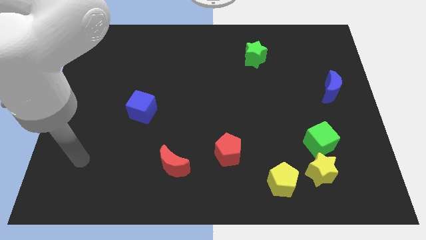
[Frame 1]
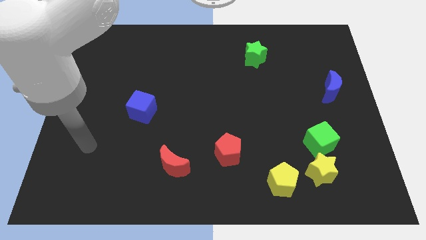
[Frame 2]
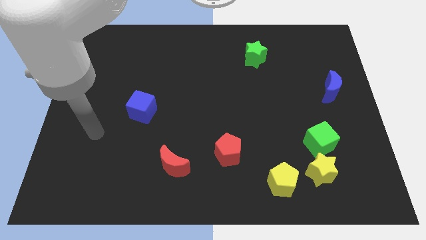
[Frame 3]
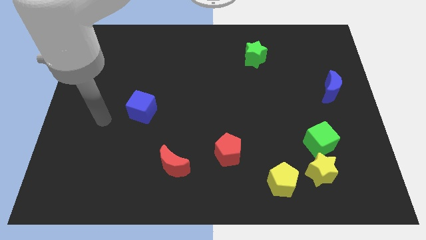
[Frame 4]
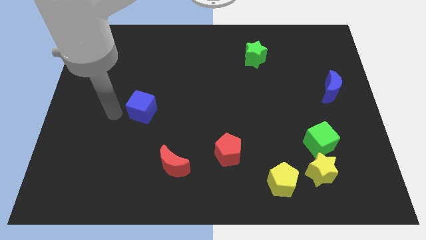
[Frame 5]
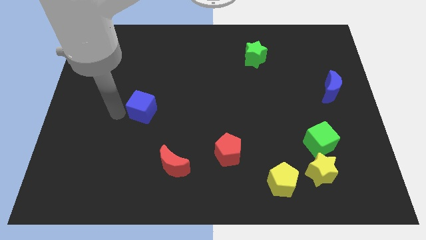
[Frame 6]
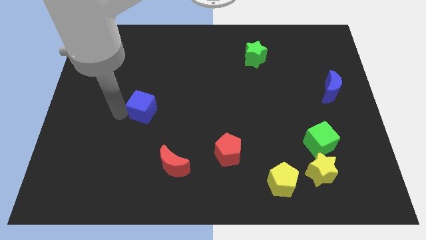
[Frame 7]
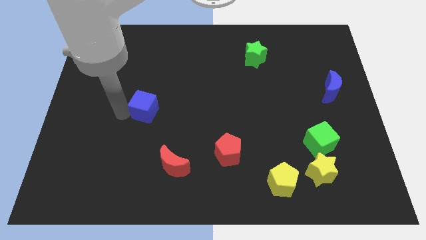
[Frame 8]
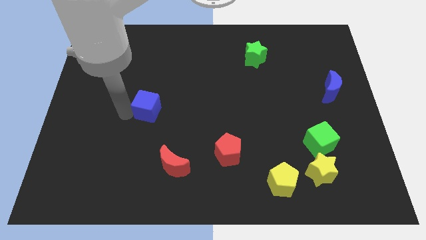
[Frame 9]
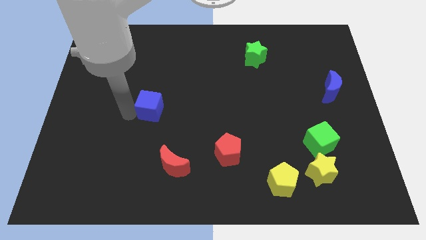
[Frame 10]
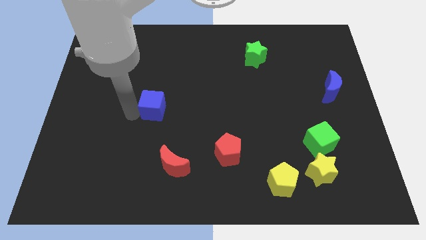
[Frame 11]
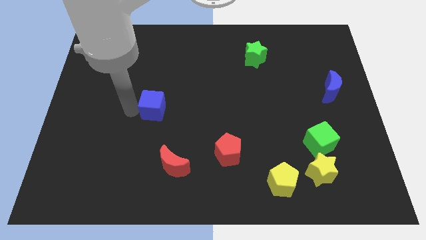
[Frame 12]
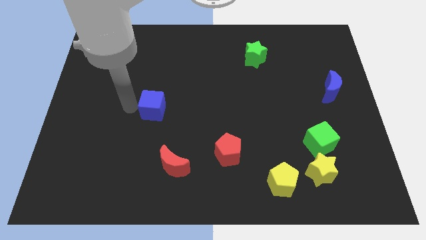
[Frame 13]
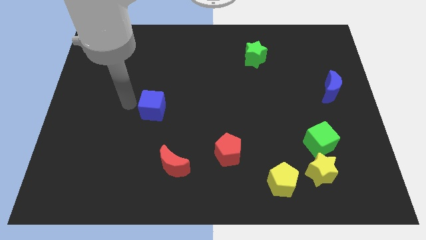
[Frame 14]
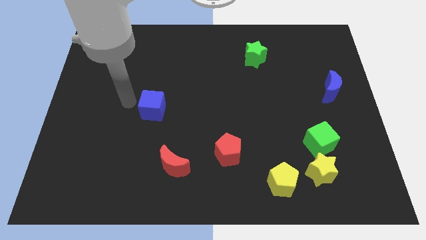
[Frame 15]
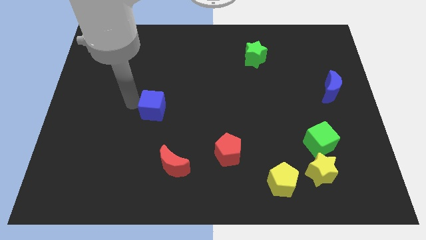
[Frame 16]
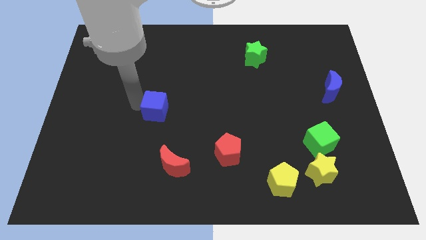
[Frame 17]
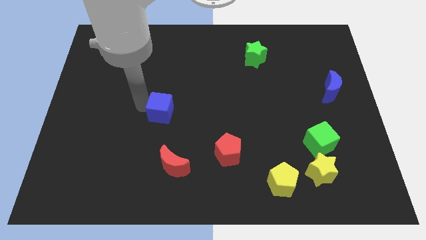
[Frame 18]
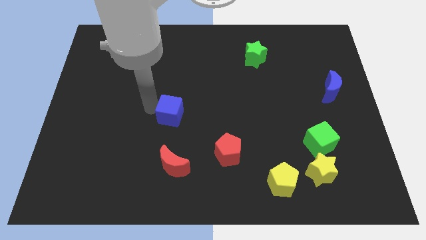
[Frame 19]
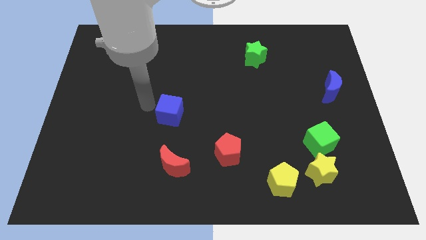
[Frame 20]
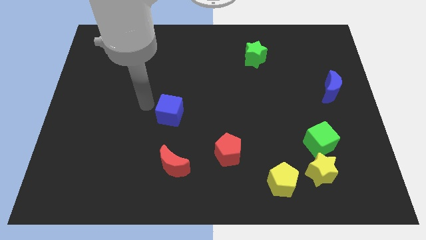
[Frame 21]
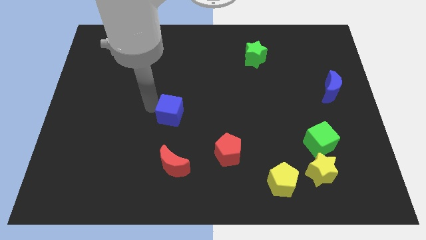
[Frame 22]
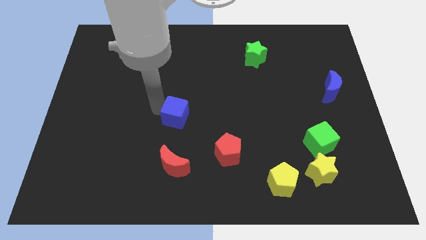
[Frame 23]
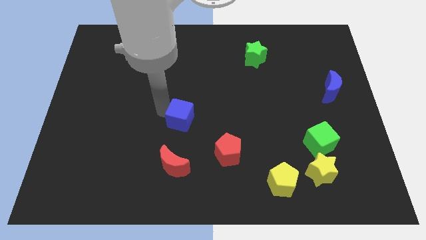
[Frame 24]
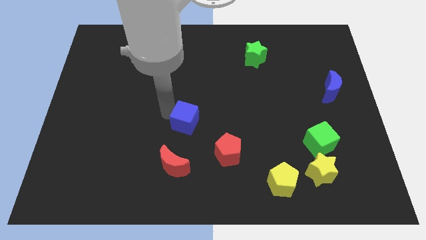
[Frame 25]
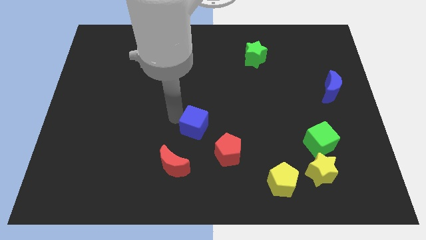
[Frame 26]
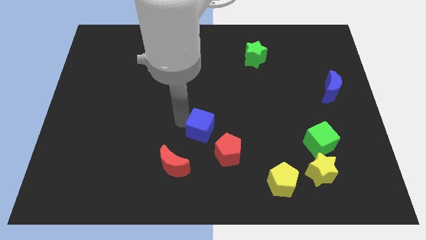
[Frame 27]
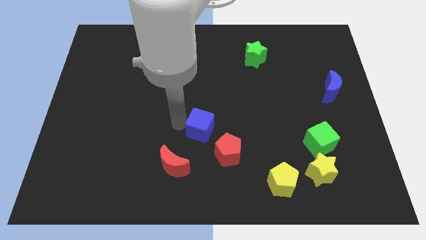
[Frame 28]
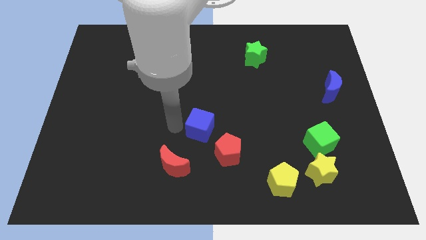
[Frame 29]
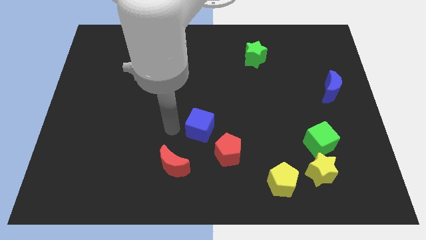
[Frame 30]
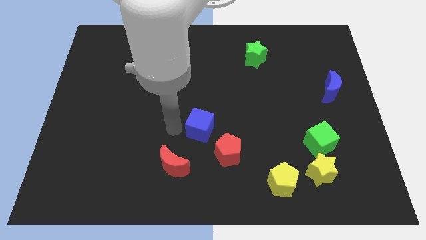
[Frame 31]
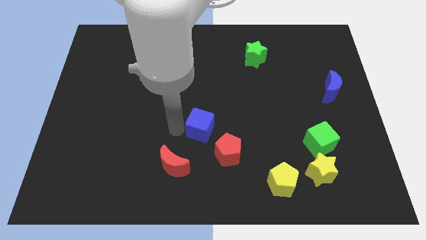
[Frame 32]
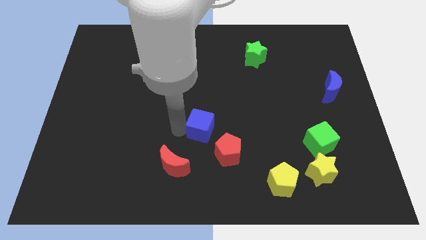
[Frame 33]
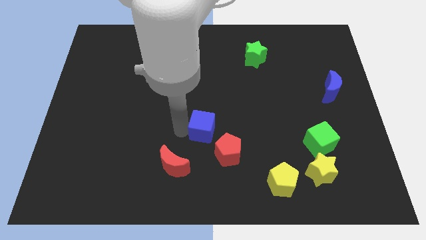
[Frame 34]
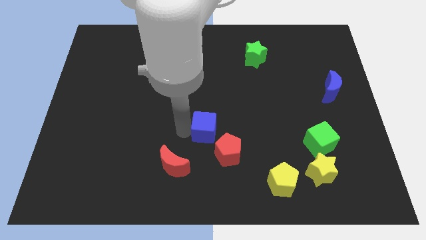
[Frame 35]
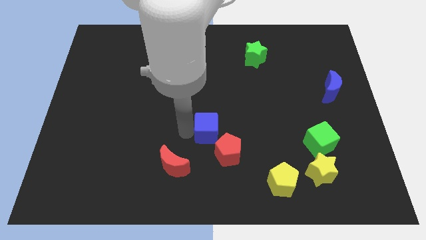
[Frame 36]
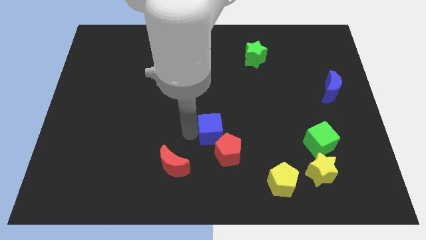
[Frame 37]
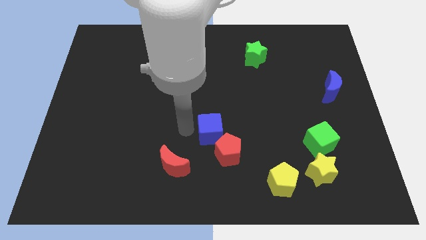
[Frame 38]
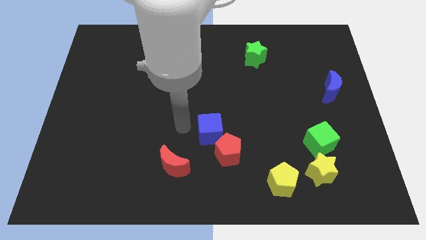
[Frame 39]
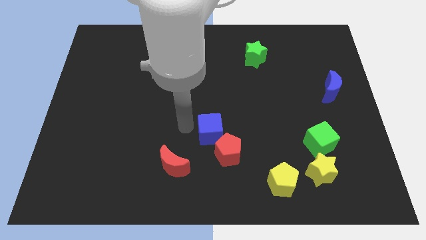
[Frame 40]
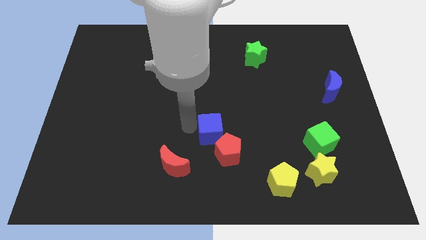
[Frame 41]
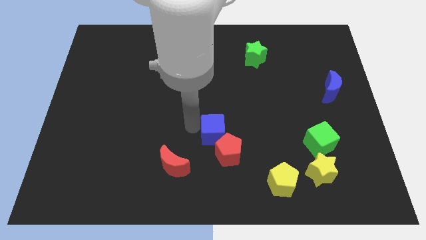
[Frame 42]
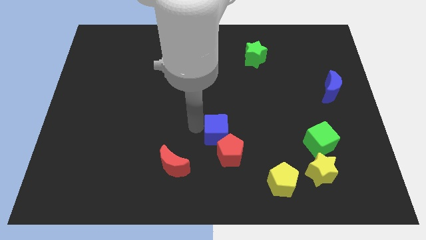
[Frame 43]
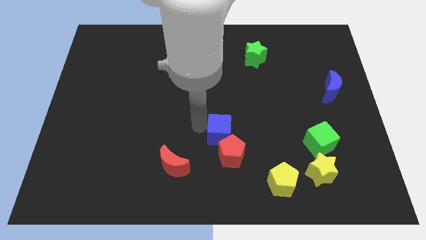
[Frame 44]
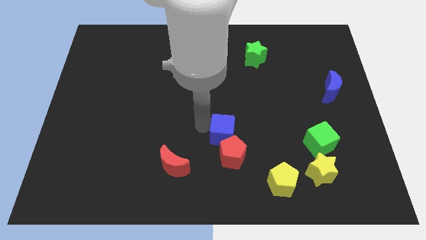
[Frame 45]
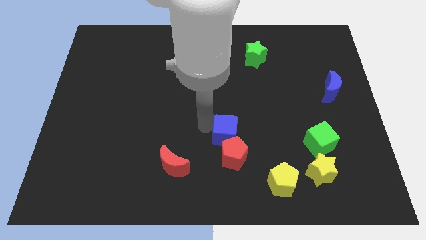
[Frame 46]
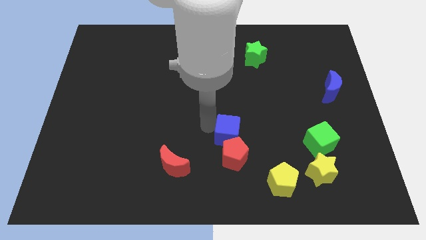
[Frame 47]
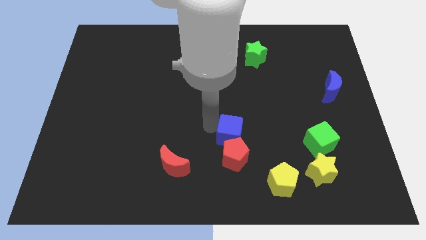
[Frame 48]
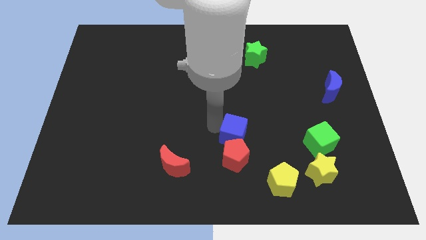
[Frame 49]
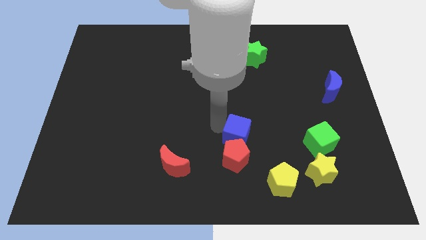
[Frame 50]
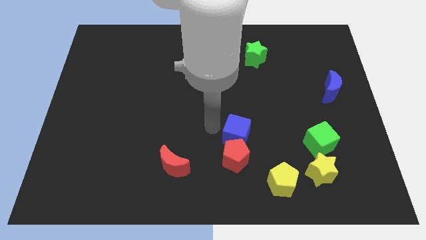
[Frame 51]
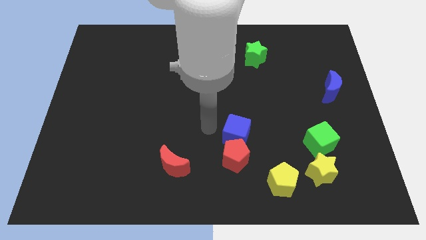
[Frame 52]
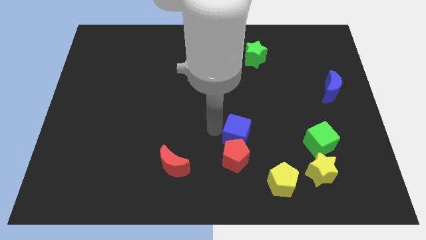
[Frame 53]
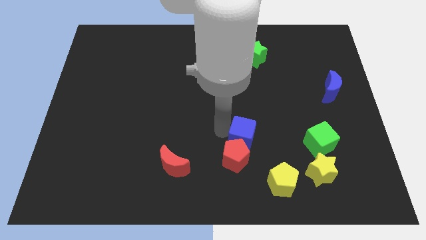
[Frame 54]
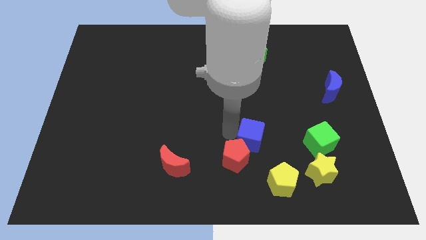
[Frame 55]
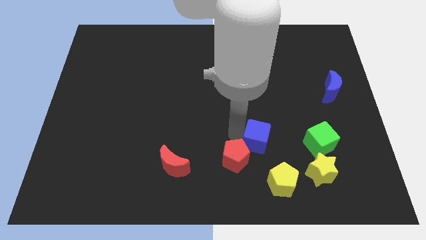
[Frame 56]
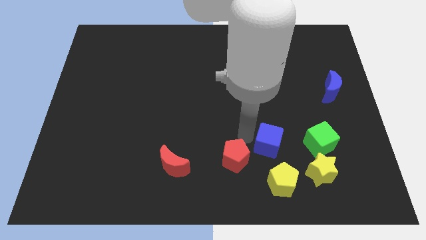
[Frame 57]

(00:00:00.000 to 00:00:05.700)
move the blue cube to the top left of the yellow star
